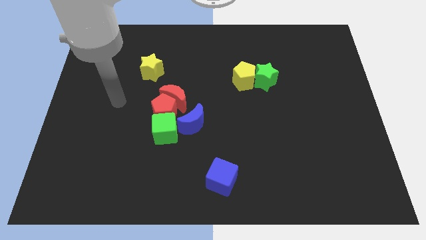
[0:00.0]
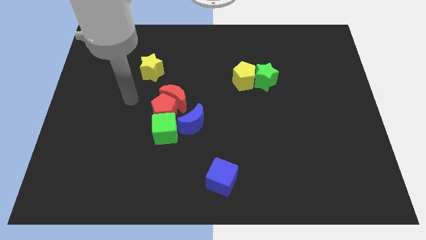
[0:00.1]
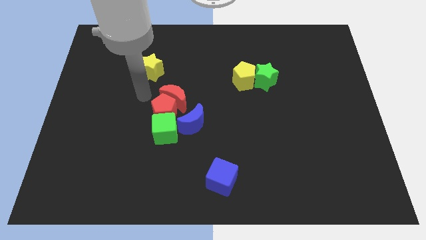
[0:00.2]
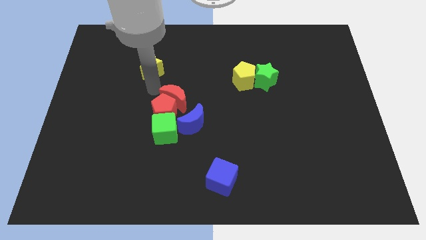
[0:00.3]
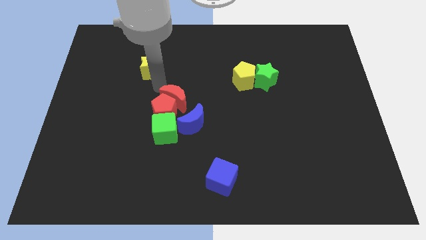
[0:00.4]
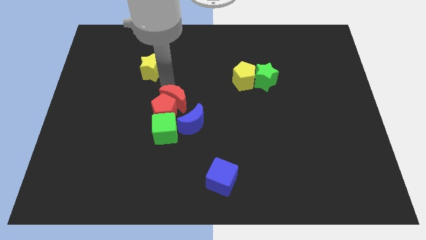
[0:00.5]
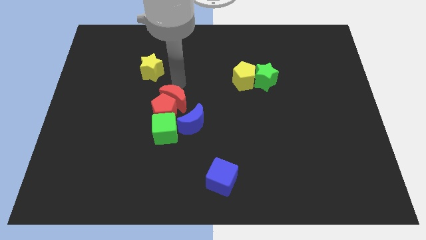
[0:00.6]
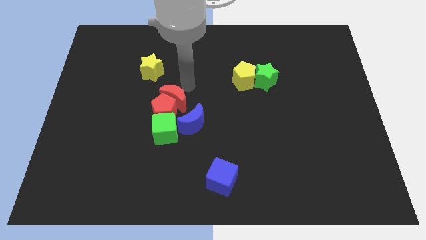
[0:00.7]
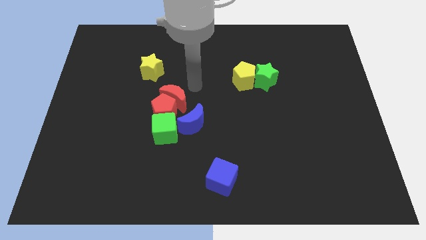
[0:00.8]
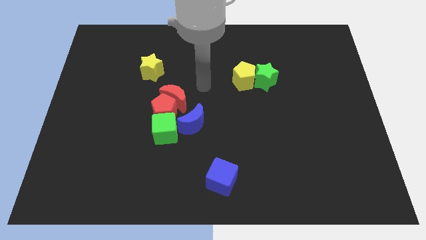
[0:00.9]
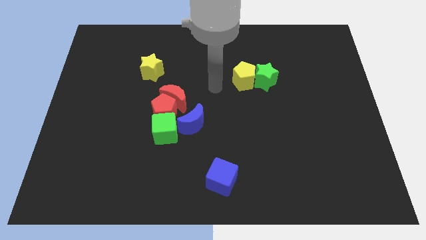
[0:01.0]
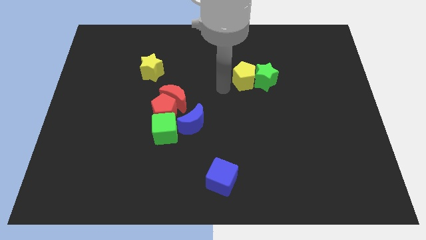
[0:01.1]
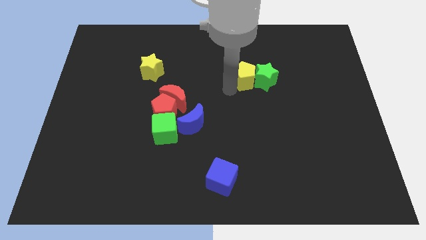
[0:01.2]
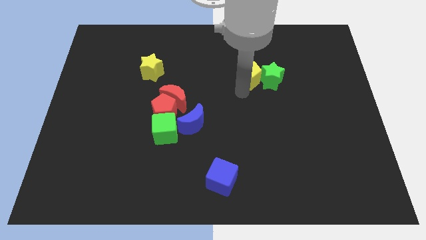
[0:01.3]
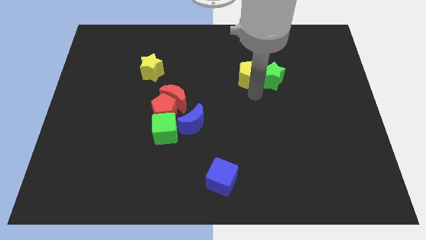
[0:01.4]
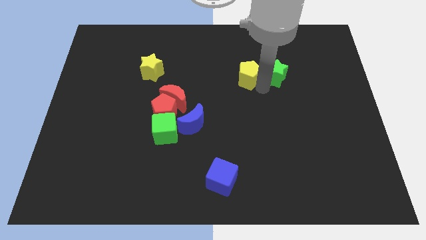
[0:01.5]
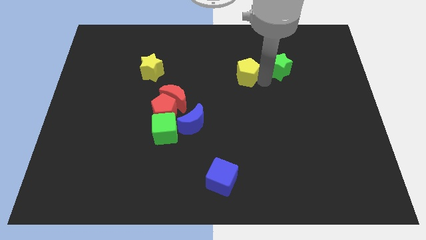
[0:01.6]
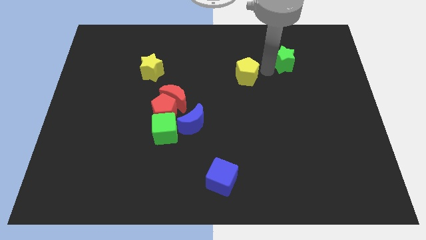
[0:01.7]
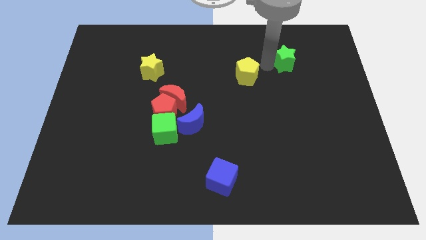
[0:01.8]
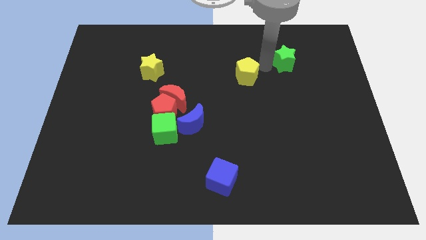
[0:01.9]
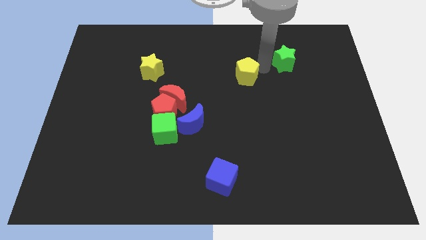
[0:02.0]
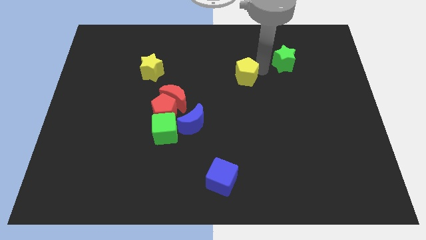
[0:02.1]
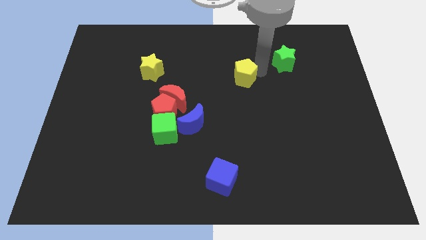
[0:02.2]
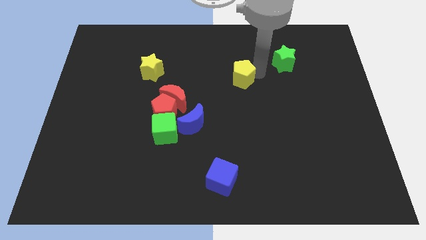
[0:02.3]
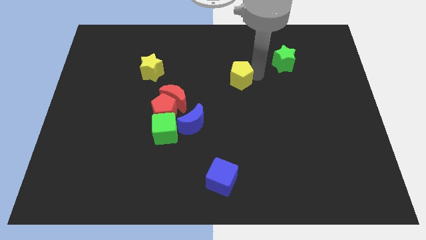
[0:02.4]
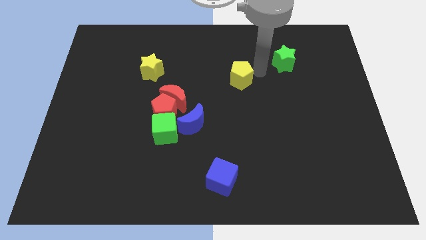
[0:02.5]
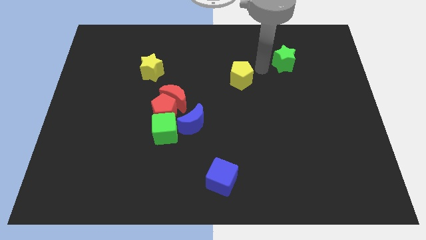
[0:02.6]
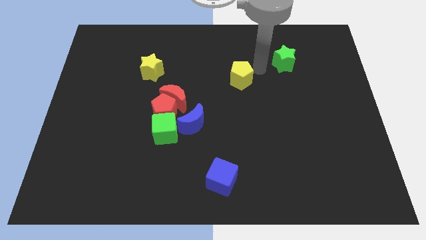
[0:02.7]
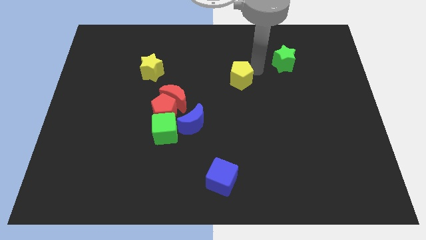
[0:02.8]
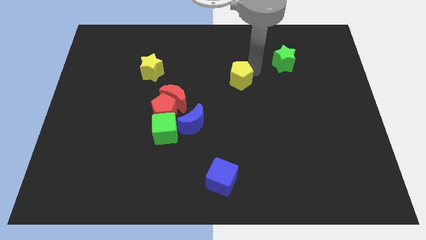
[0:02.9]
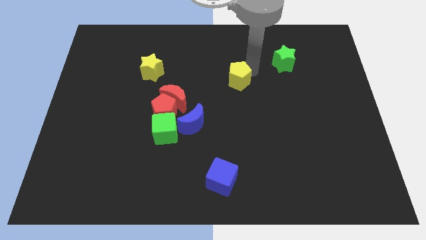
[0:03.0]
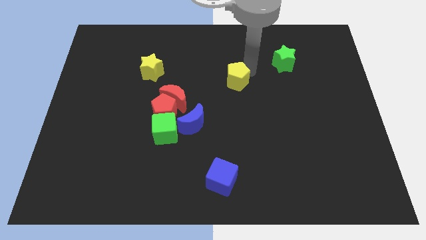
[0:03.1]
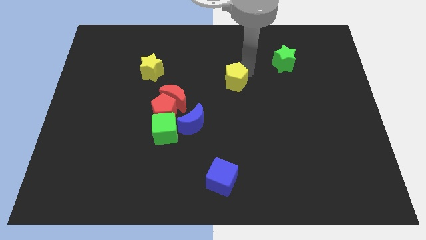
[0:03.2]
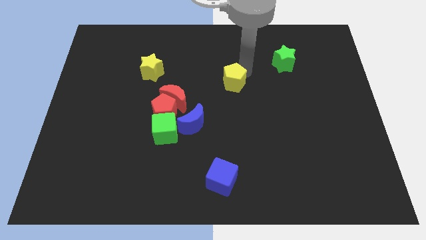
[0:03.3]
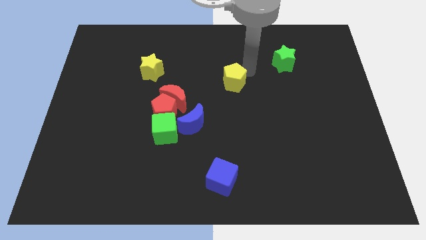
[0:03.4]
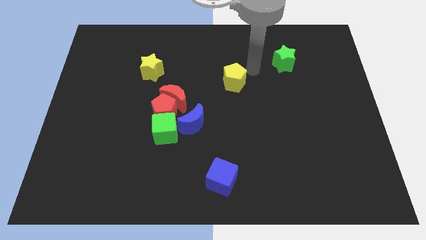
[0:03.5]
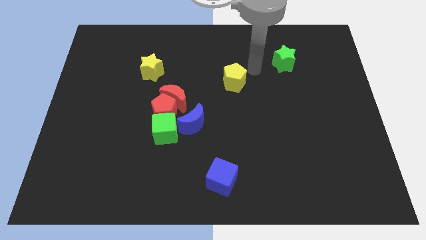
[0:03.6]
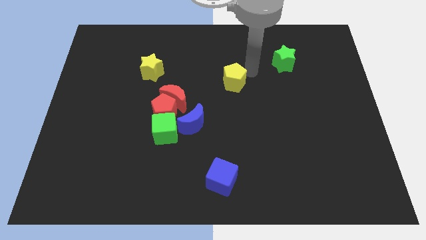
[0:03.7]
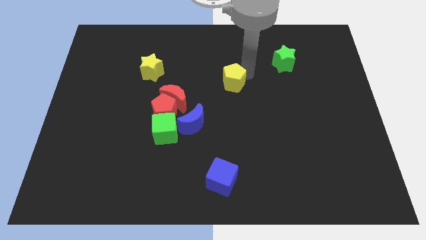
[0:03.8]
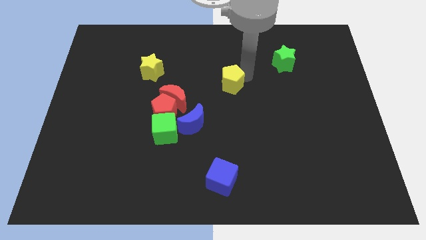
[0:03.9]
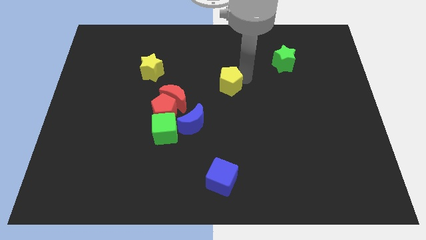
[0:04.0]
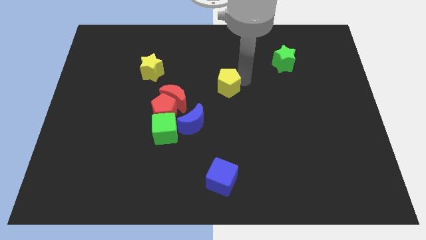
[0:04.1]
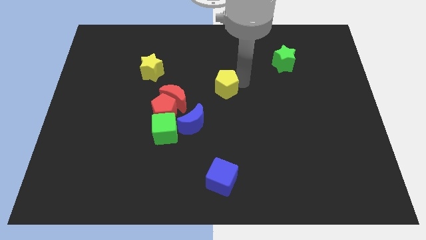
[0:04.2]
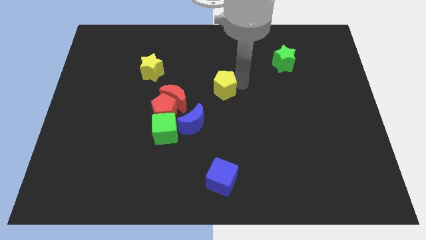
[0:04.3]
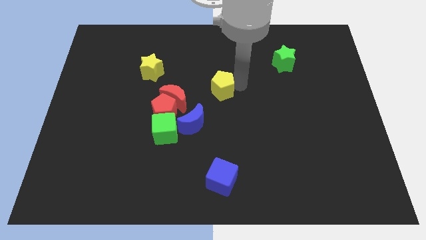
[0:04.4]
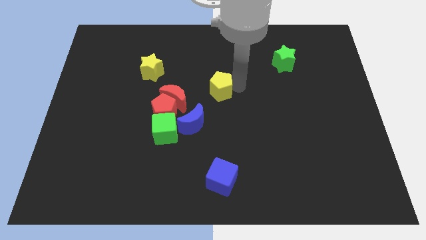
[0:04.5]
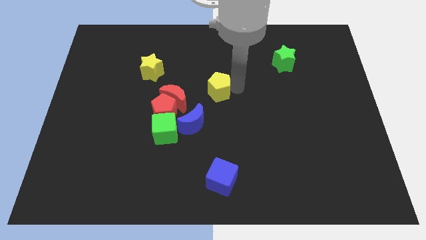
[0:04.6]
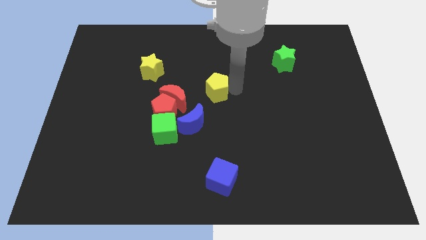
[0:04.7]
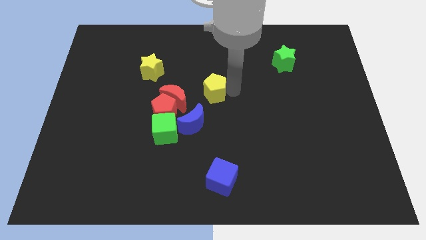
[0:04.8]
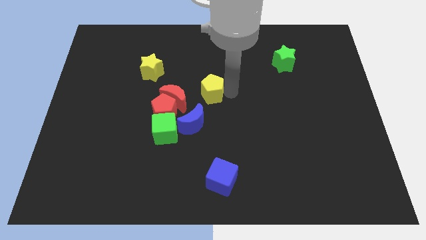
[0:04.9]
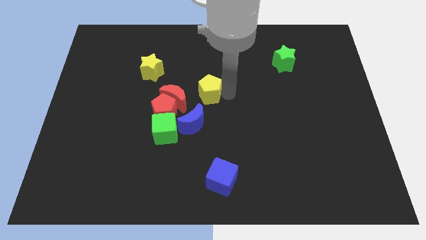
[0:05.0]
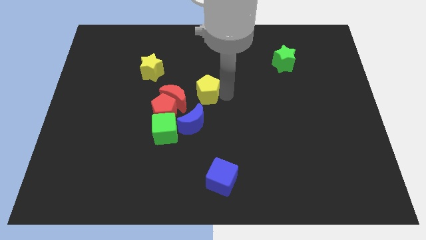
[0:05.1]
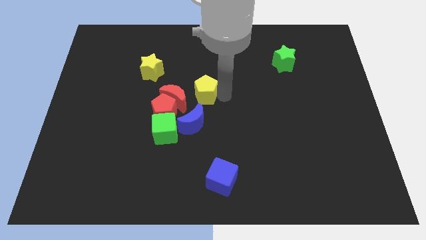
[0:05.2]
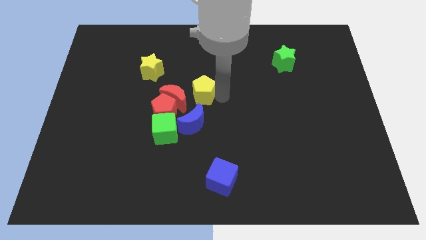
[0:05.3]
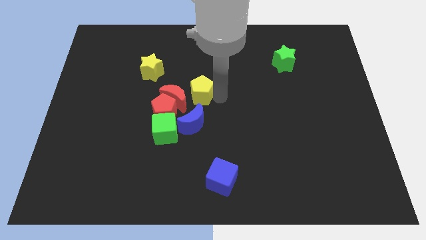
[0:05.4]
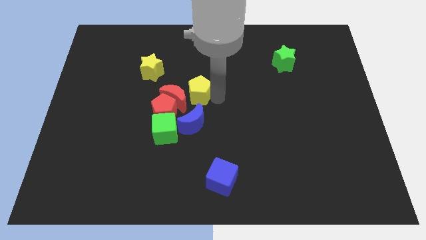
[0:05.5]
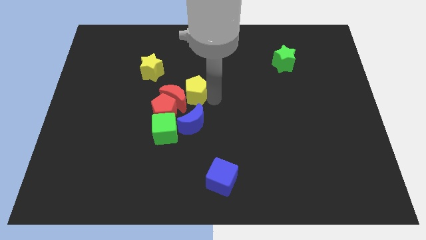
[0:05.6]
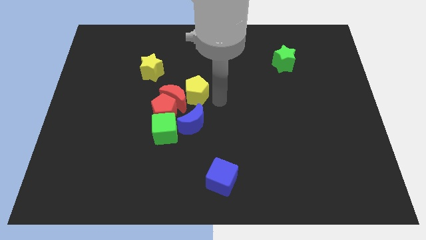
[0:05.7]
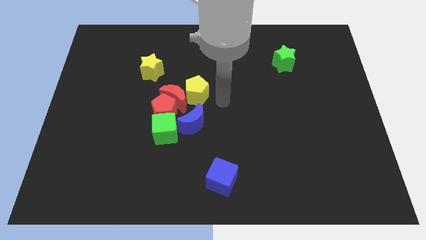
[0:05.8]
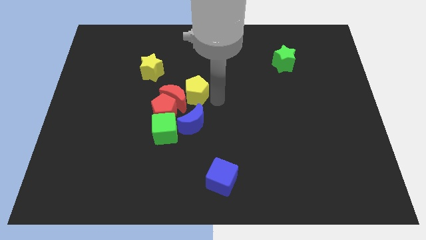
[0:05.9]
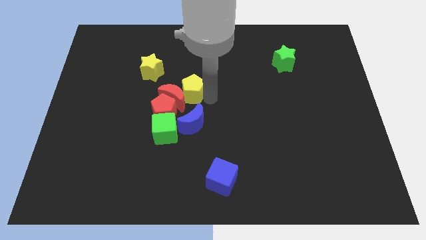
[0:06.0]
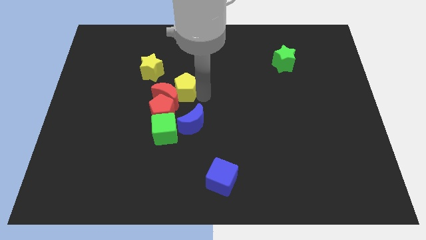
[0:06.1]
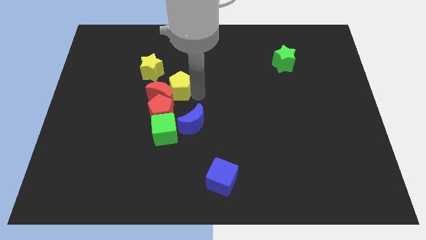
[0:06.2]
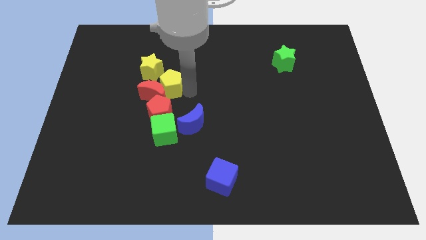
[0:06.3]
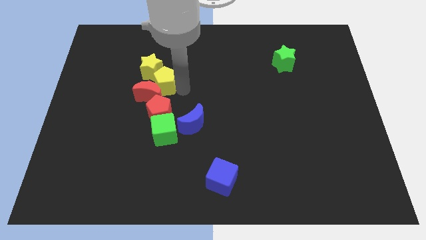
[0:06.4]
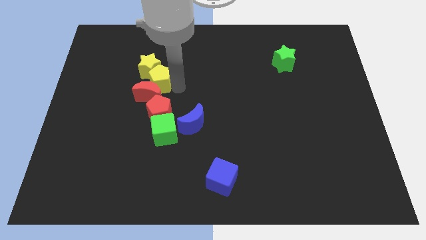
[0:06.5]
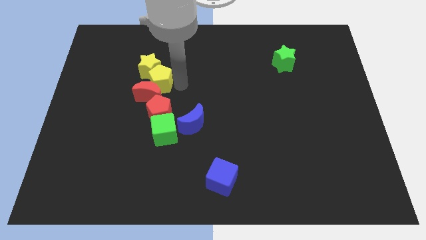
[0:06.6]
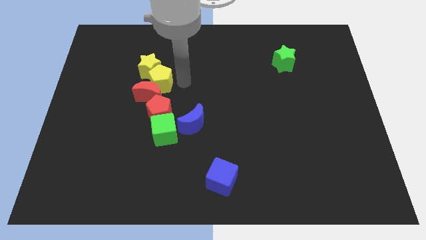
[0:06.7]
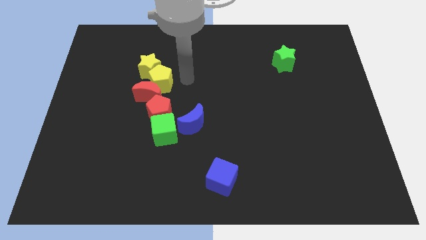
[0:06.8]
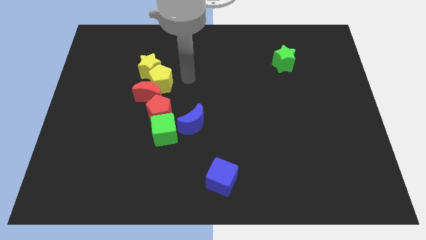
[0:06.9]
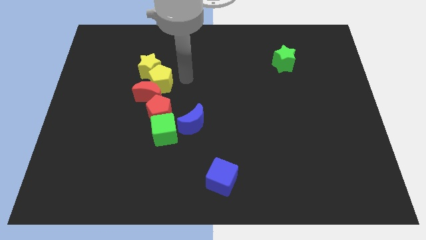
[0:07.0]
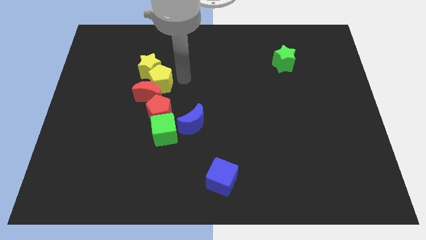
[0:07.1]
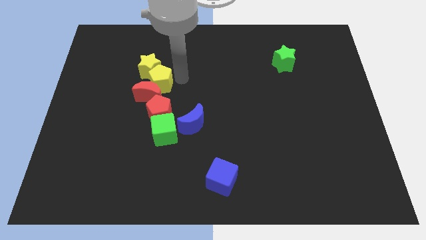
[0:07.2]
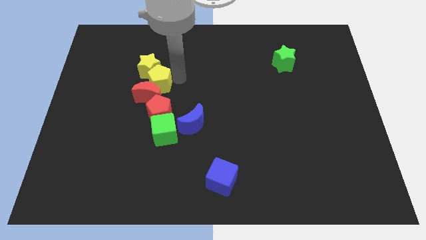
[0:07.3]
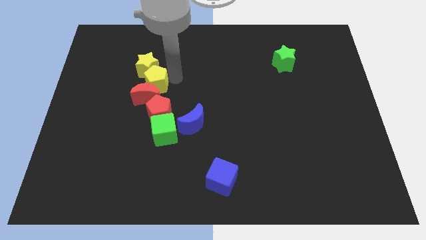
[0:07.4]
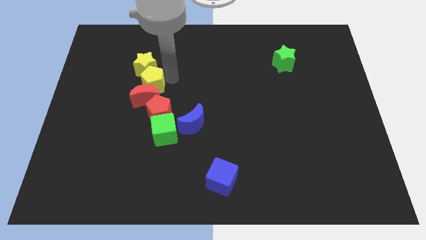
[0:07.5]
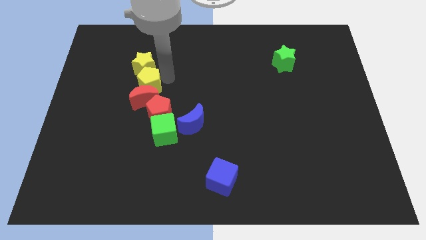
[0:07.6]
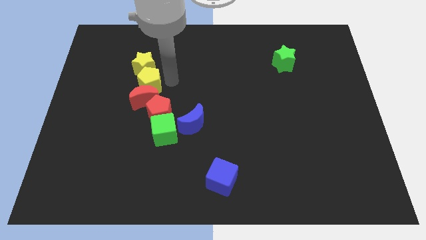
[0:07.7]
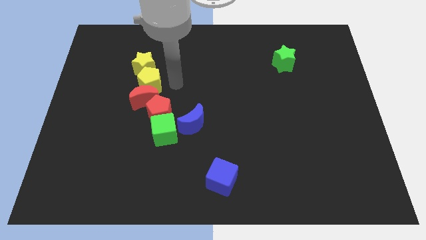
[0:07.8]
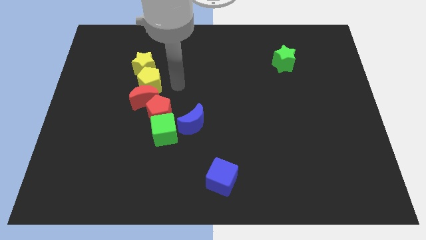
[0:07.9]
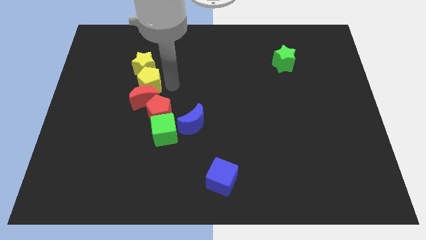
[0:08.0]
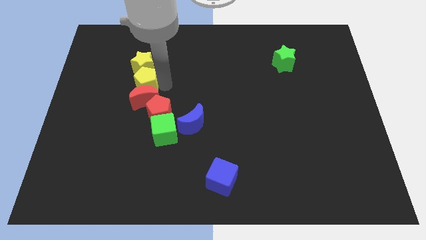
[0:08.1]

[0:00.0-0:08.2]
put the yellow pentagon to the bottom left of the yellow star
